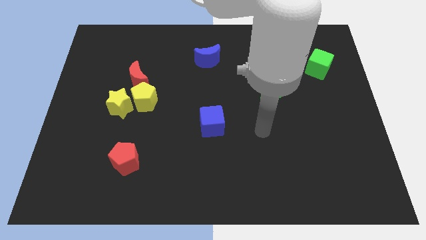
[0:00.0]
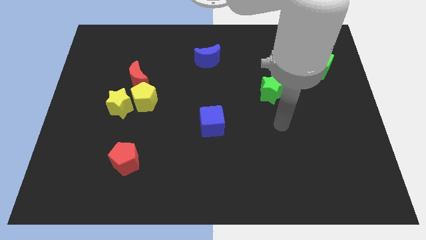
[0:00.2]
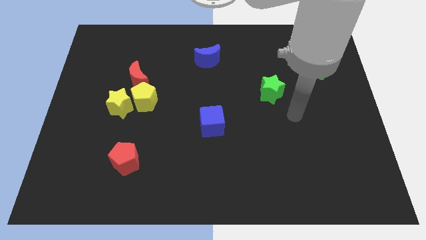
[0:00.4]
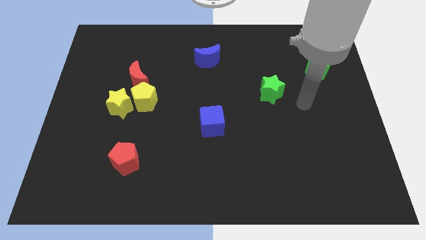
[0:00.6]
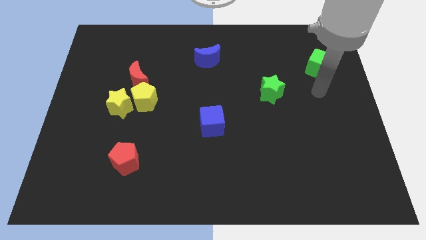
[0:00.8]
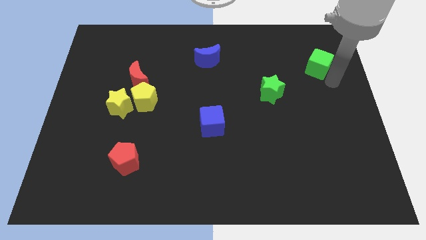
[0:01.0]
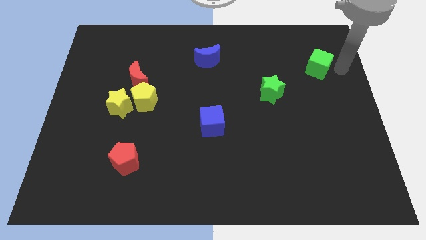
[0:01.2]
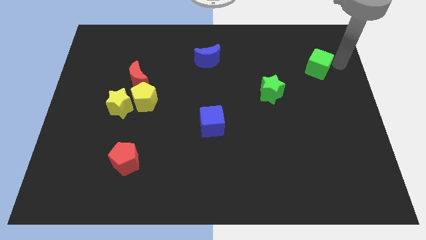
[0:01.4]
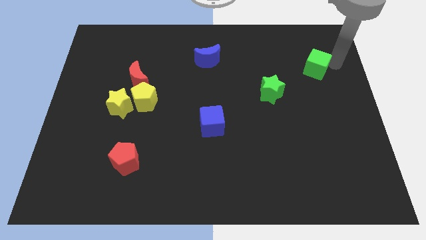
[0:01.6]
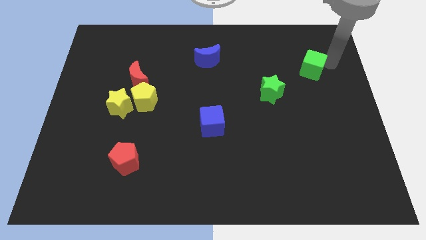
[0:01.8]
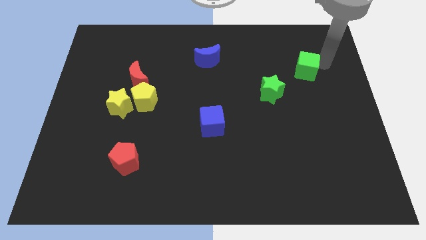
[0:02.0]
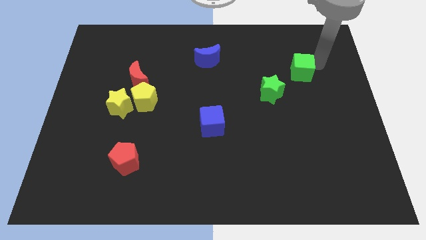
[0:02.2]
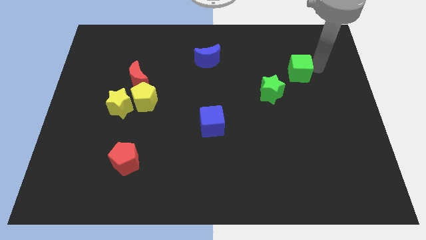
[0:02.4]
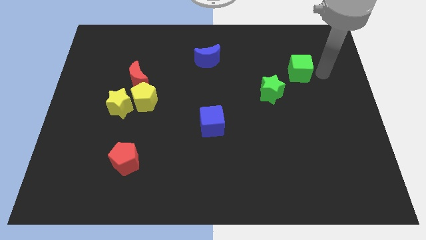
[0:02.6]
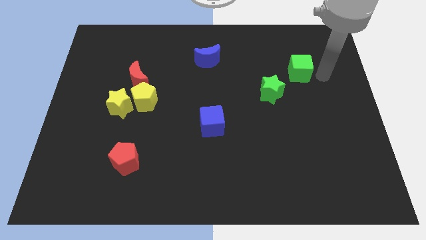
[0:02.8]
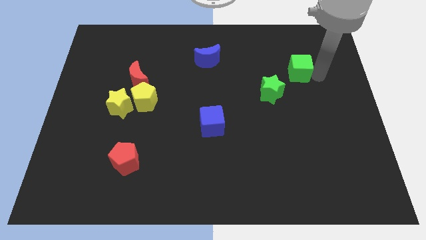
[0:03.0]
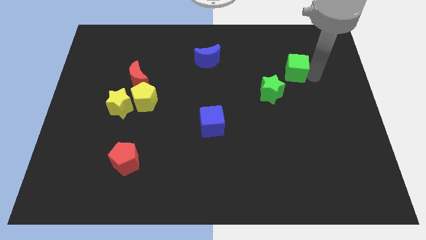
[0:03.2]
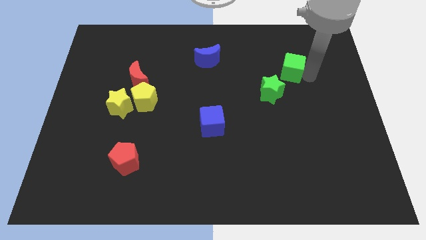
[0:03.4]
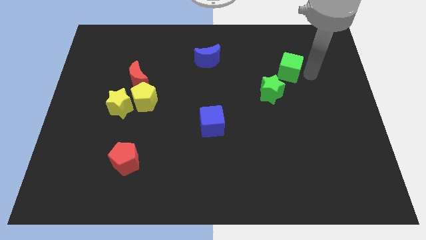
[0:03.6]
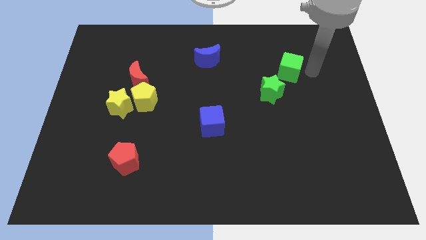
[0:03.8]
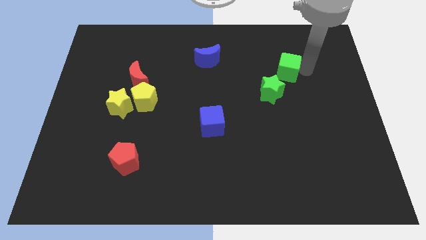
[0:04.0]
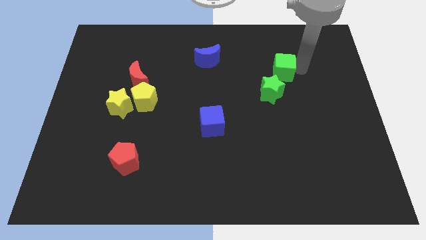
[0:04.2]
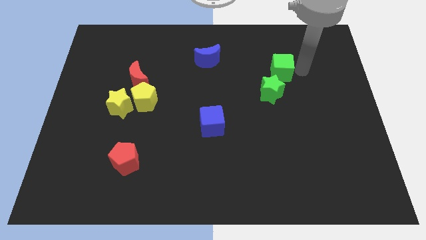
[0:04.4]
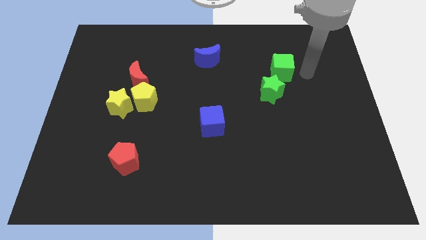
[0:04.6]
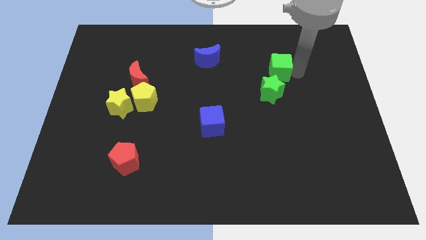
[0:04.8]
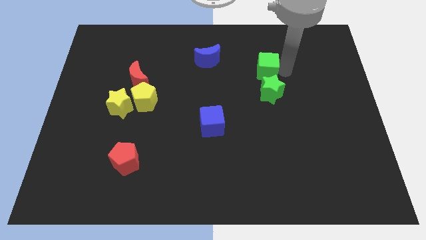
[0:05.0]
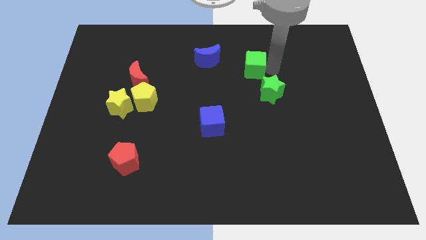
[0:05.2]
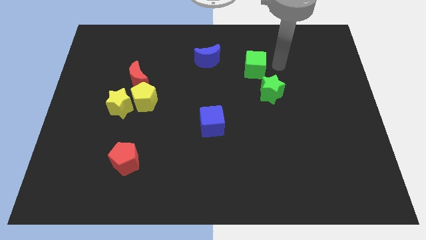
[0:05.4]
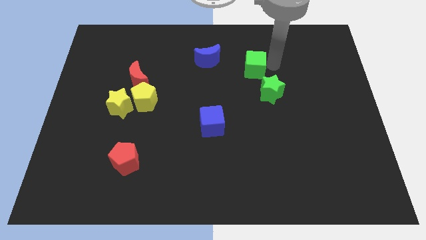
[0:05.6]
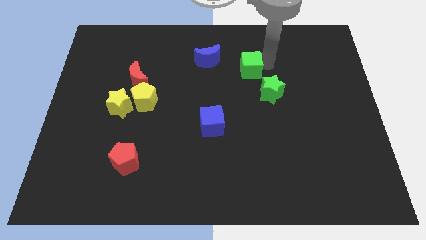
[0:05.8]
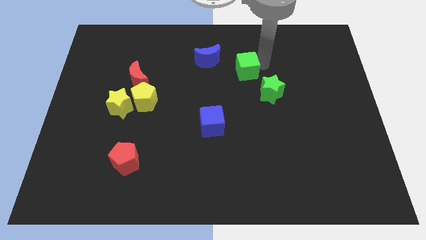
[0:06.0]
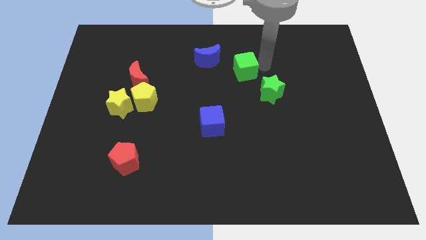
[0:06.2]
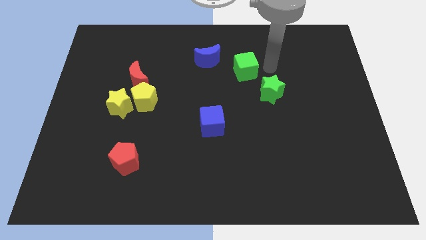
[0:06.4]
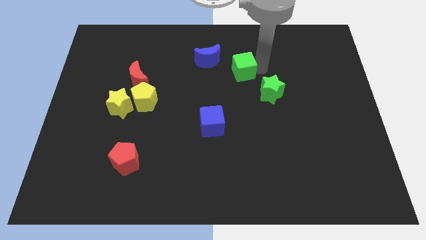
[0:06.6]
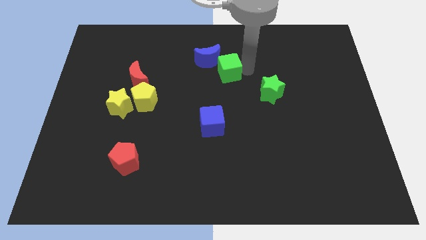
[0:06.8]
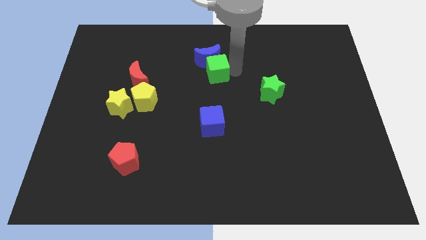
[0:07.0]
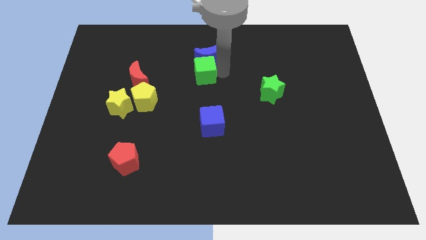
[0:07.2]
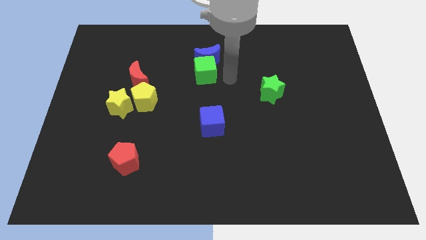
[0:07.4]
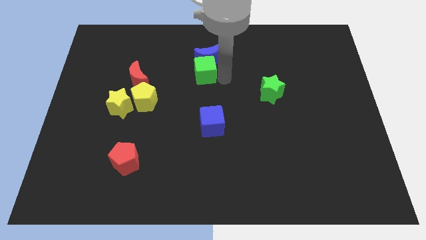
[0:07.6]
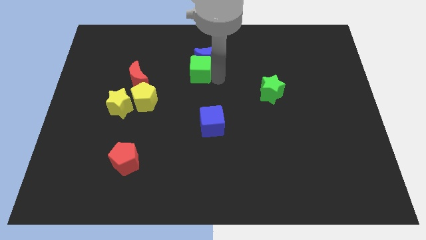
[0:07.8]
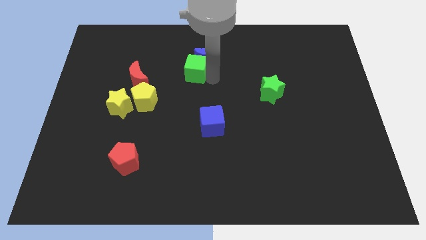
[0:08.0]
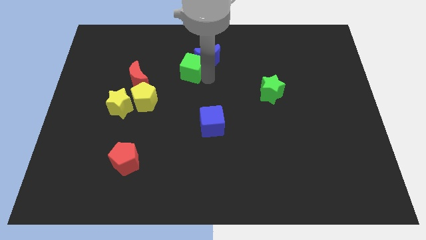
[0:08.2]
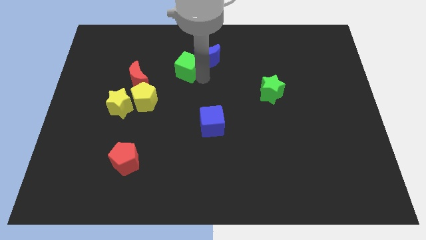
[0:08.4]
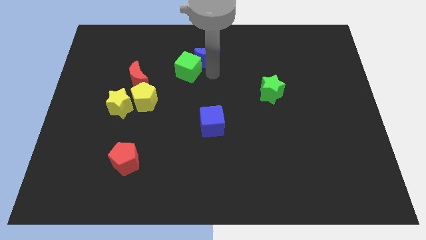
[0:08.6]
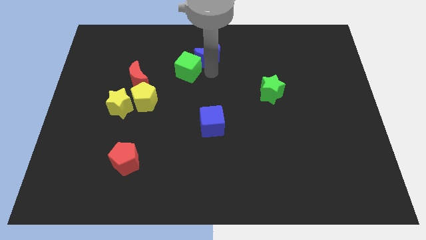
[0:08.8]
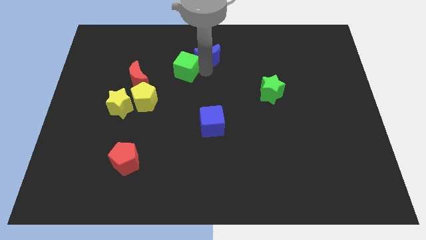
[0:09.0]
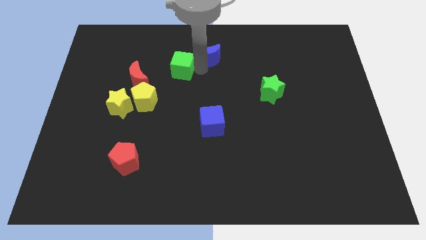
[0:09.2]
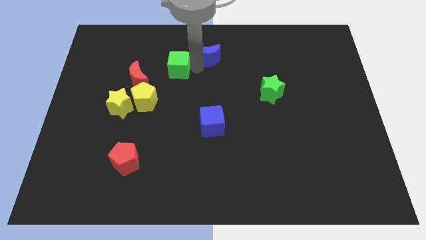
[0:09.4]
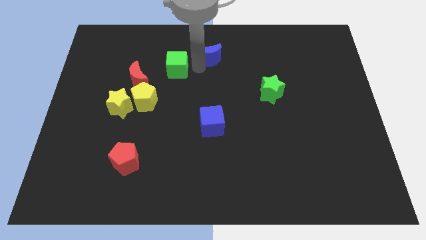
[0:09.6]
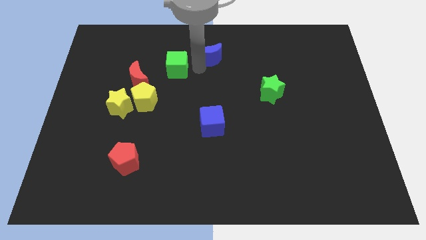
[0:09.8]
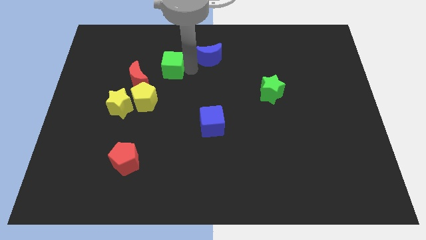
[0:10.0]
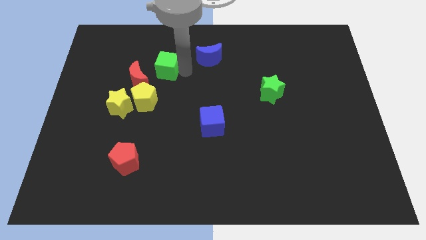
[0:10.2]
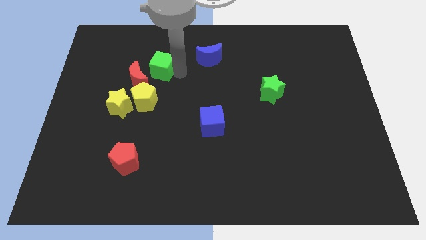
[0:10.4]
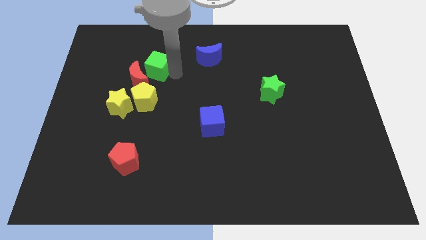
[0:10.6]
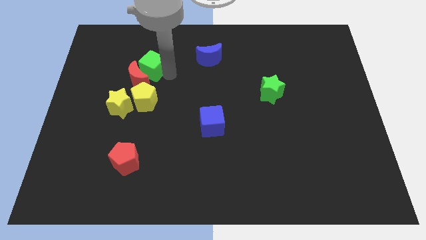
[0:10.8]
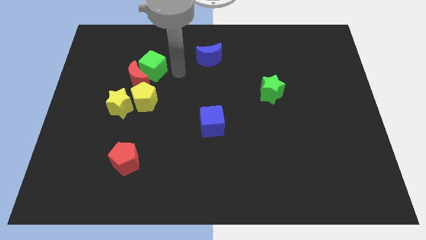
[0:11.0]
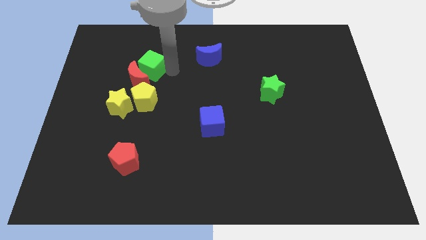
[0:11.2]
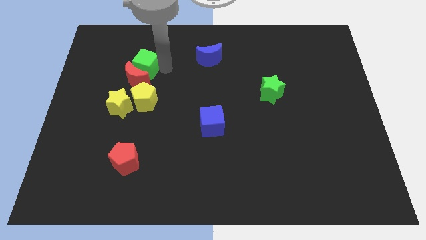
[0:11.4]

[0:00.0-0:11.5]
slide the green cube diagonally up and to the left of the red moon

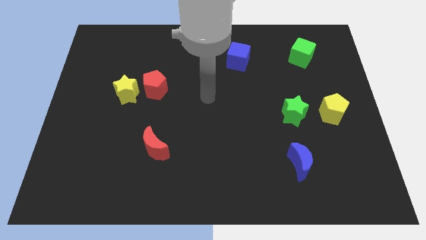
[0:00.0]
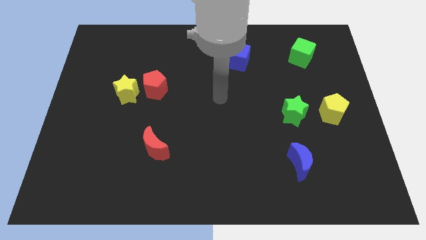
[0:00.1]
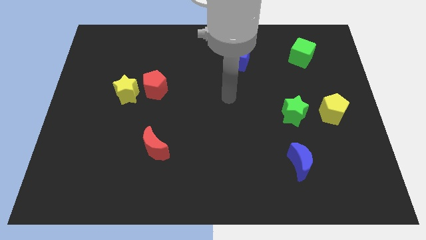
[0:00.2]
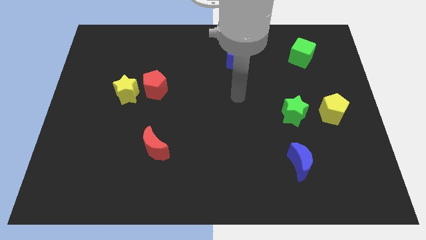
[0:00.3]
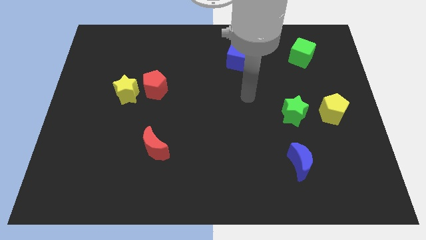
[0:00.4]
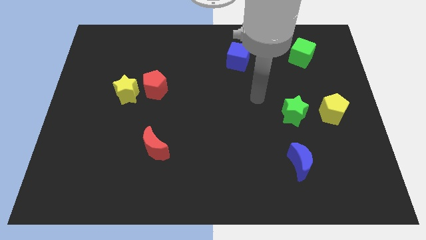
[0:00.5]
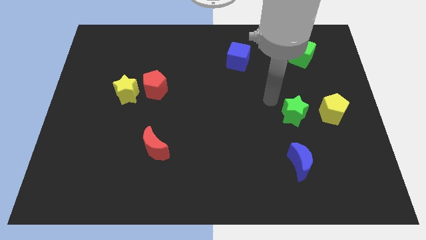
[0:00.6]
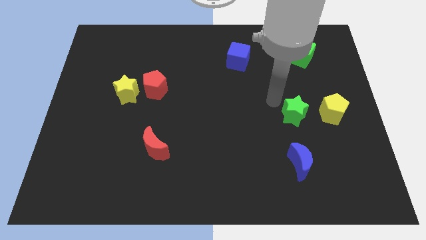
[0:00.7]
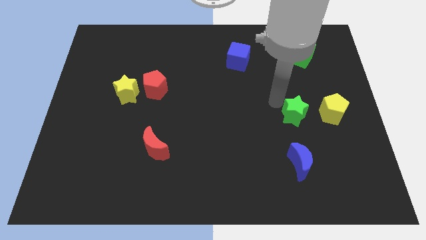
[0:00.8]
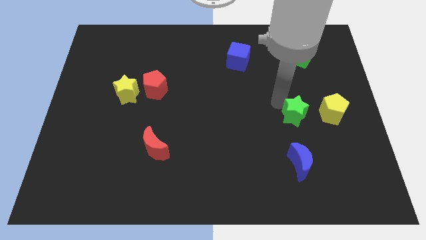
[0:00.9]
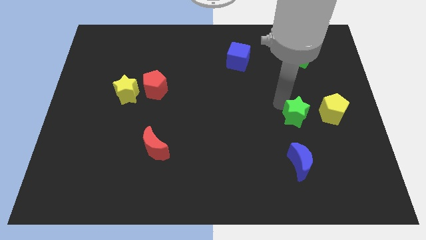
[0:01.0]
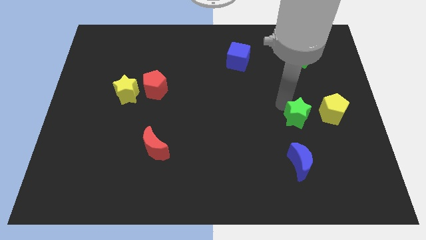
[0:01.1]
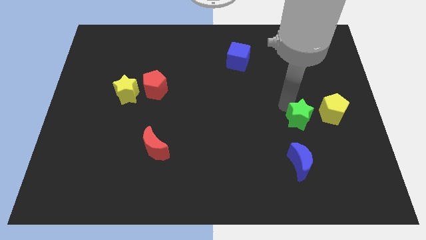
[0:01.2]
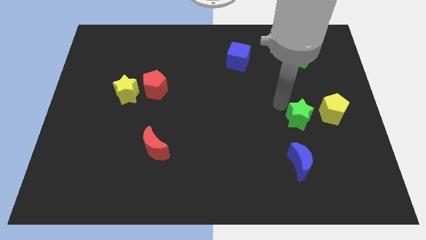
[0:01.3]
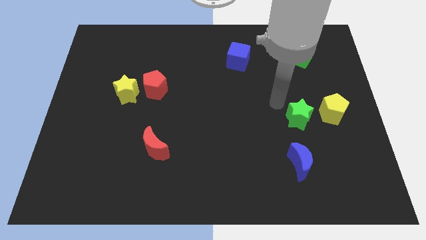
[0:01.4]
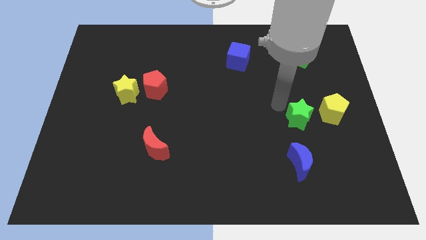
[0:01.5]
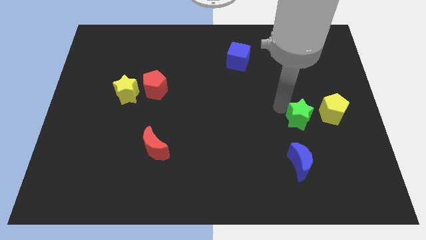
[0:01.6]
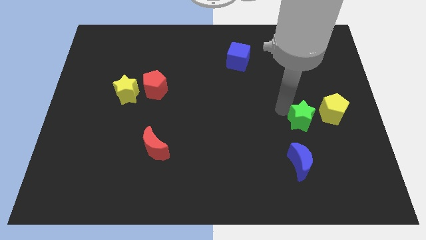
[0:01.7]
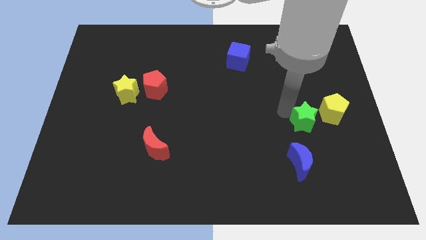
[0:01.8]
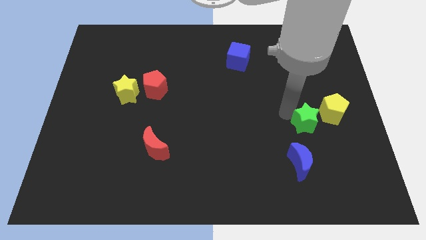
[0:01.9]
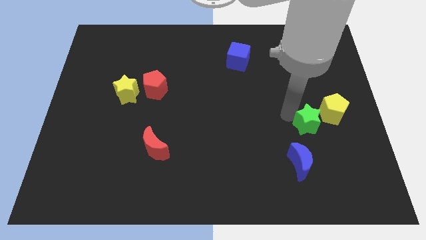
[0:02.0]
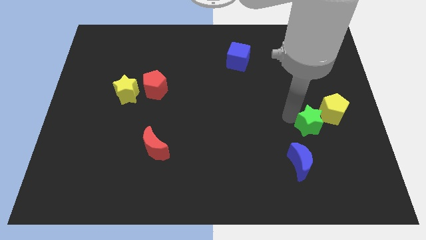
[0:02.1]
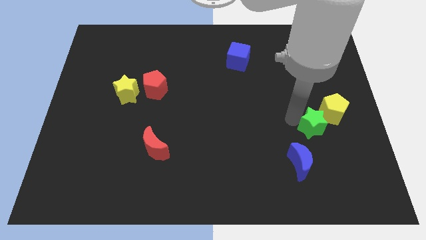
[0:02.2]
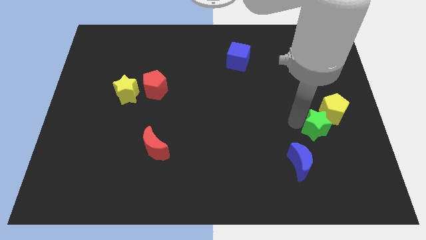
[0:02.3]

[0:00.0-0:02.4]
move the green star to the bottom of the yellow pentagon
